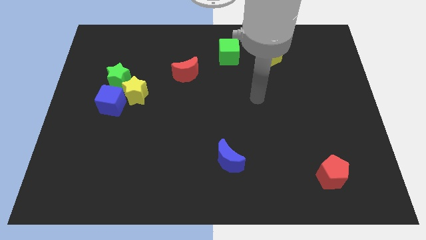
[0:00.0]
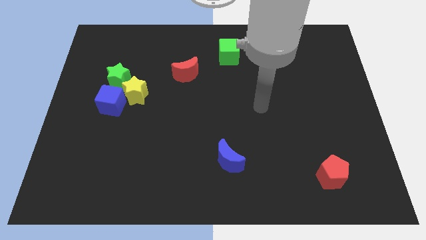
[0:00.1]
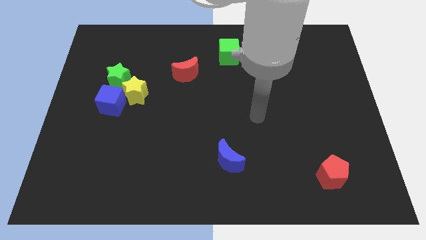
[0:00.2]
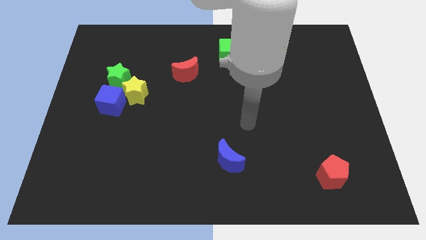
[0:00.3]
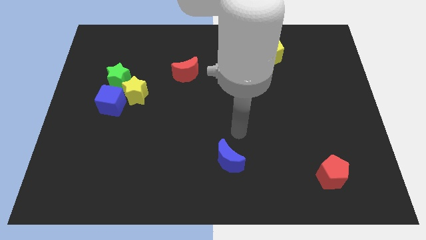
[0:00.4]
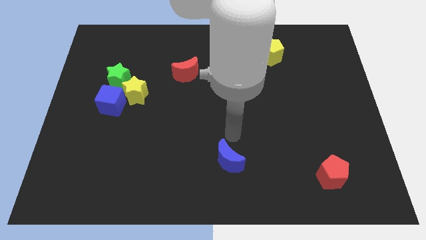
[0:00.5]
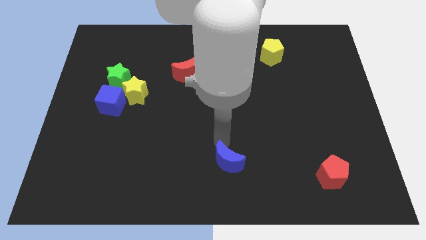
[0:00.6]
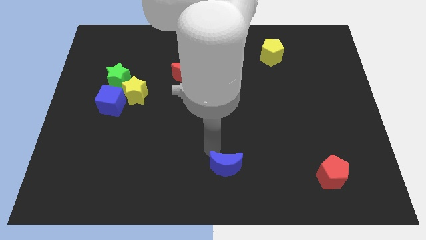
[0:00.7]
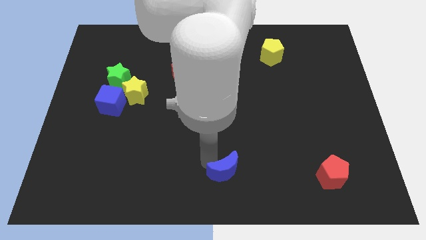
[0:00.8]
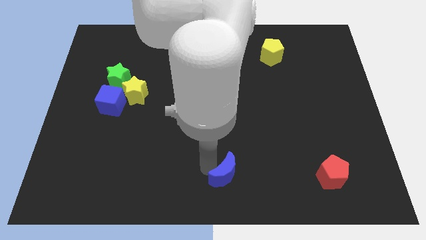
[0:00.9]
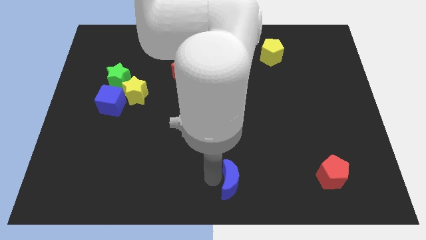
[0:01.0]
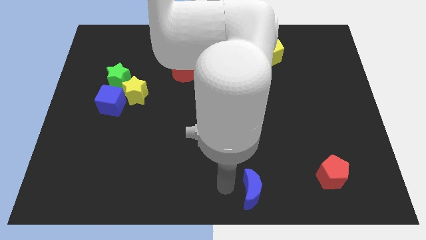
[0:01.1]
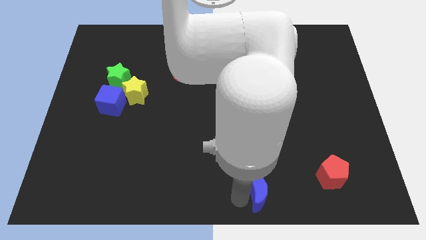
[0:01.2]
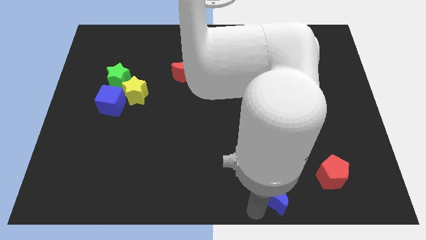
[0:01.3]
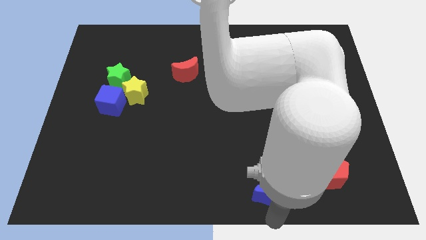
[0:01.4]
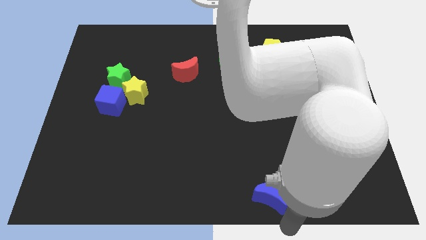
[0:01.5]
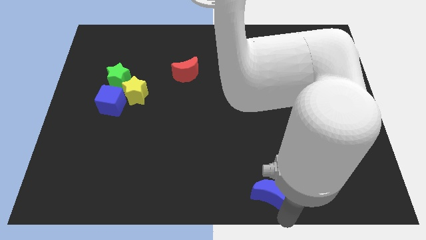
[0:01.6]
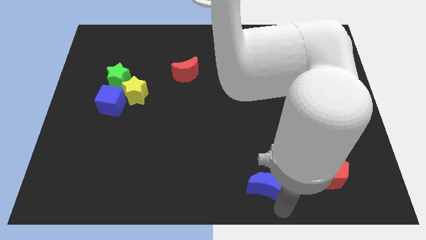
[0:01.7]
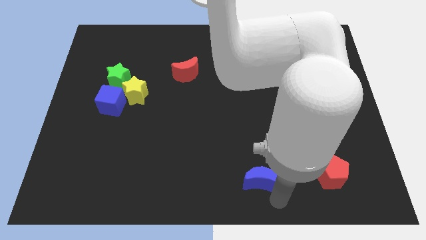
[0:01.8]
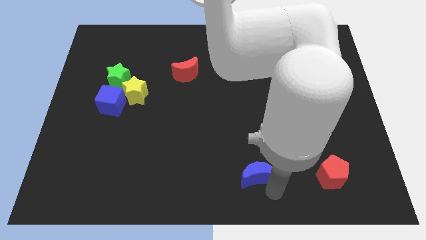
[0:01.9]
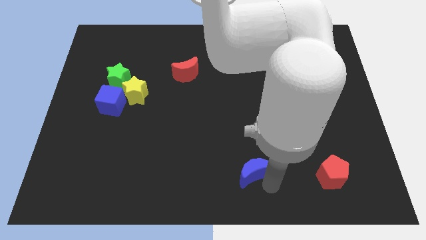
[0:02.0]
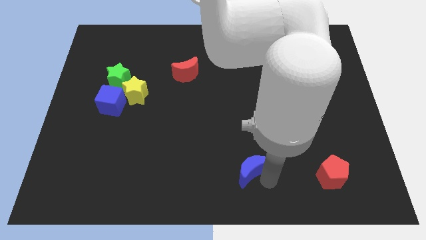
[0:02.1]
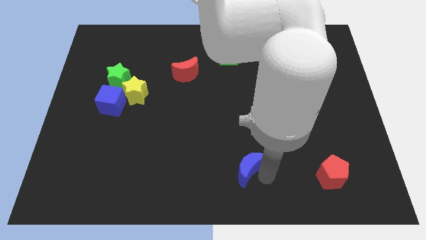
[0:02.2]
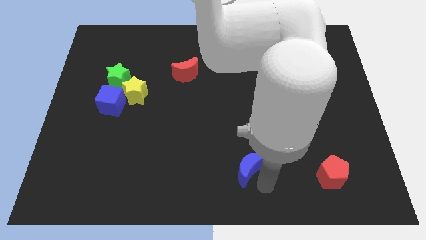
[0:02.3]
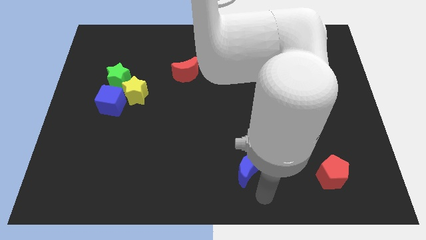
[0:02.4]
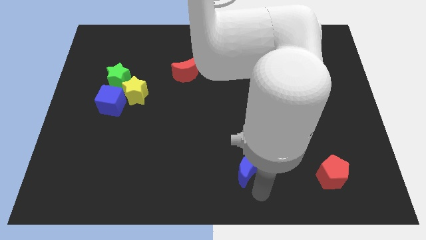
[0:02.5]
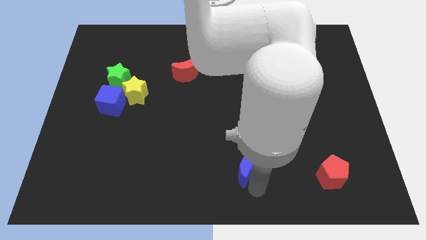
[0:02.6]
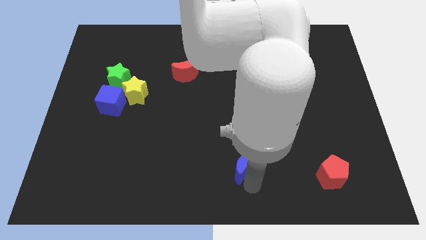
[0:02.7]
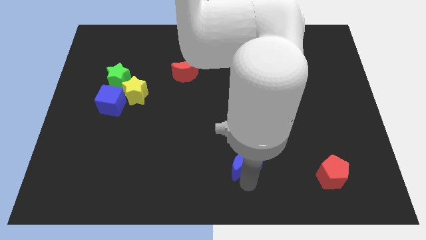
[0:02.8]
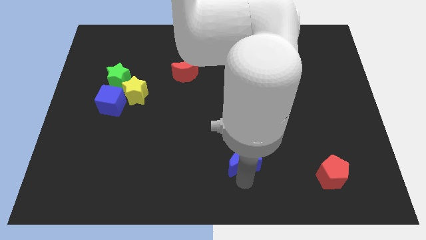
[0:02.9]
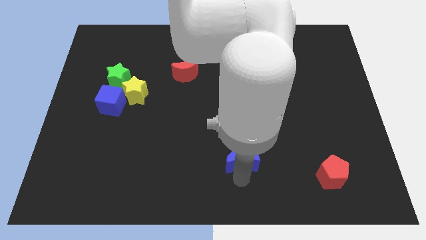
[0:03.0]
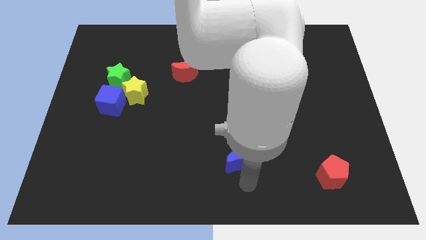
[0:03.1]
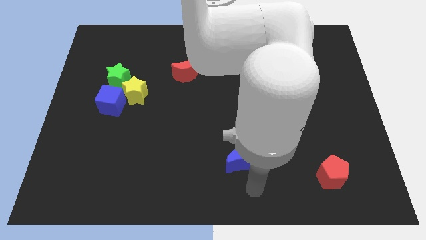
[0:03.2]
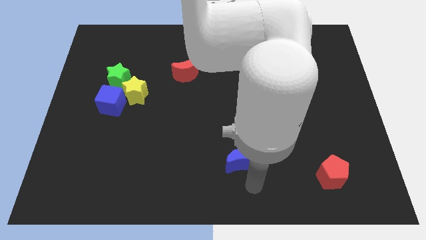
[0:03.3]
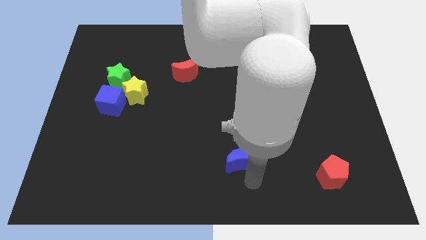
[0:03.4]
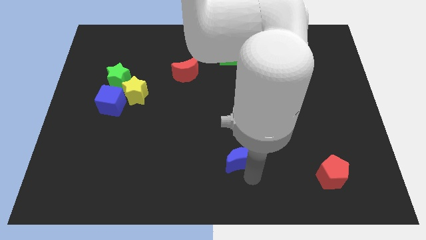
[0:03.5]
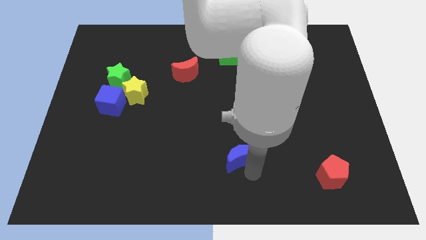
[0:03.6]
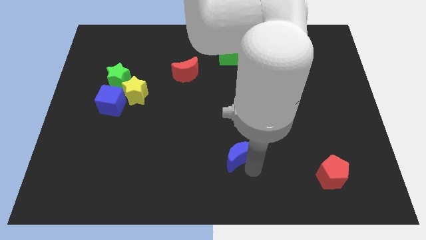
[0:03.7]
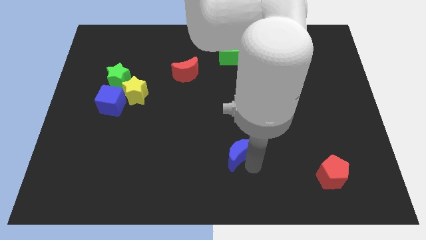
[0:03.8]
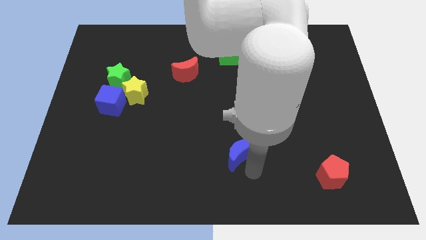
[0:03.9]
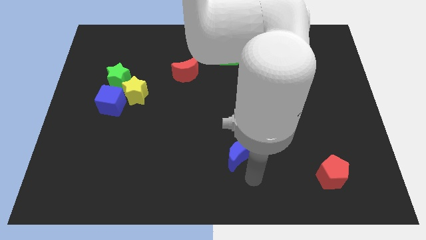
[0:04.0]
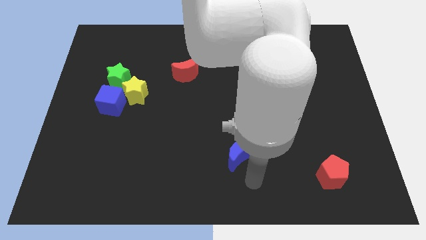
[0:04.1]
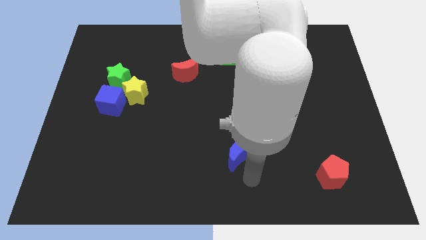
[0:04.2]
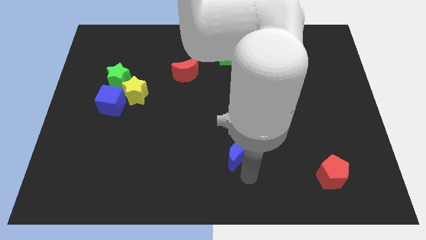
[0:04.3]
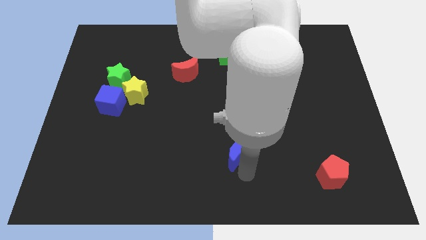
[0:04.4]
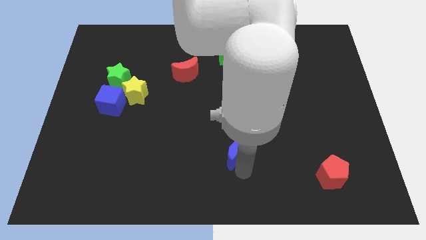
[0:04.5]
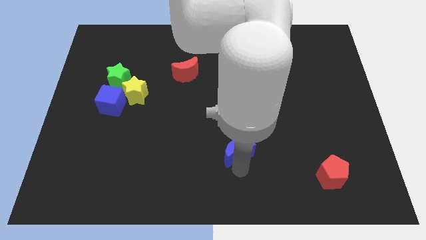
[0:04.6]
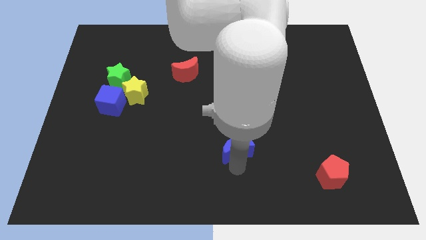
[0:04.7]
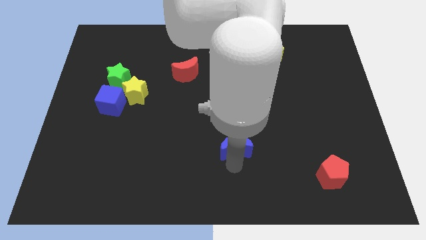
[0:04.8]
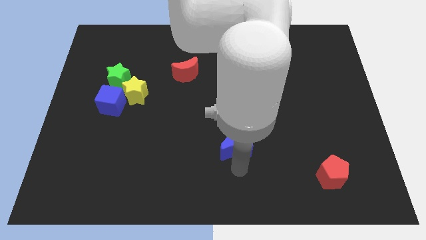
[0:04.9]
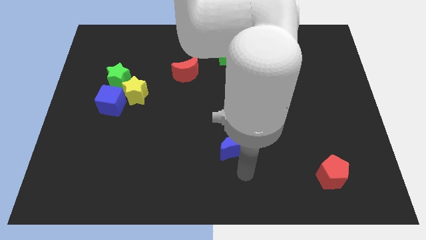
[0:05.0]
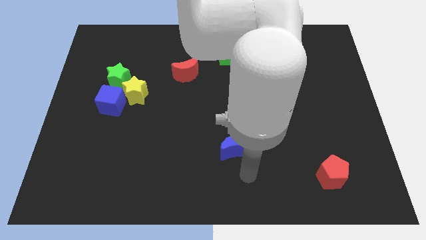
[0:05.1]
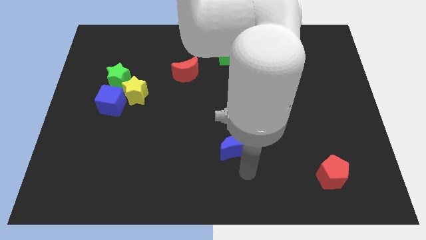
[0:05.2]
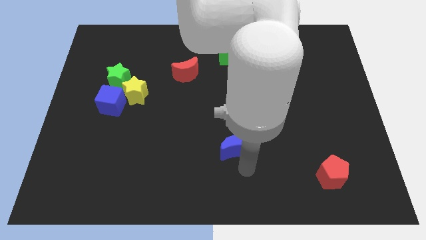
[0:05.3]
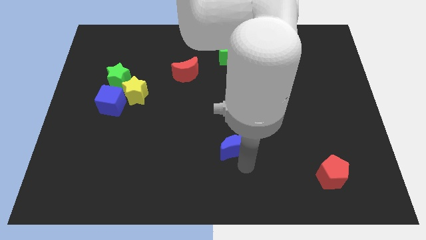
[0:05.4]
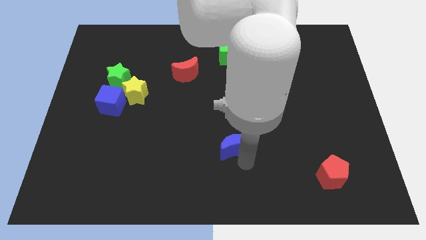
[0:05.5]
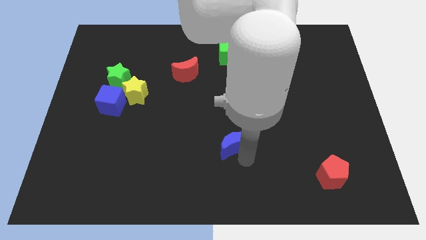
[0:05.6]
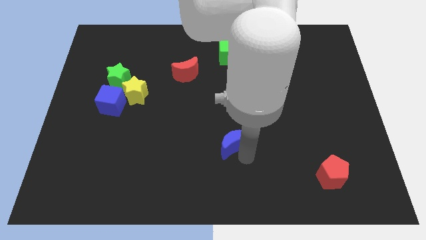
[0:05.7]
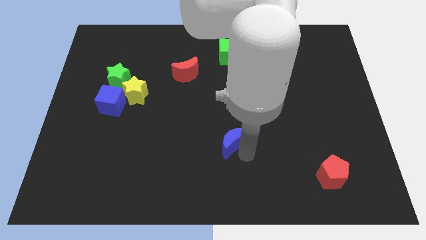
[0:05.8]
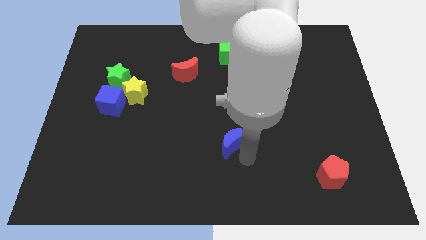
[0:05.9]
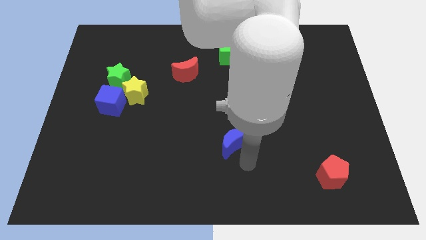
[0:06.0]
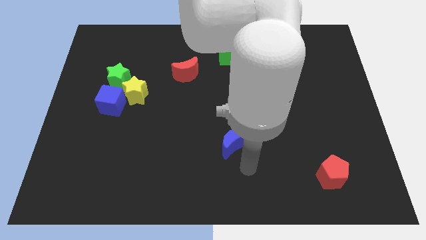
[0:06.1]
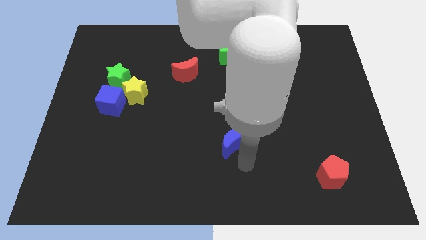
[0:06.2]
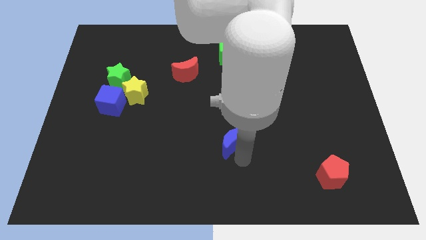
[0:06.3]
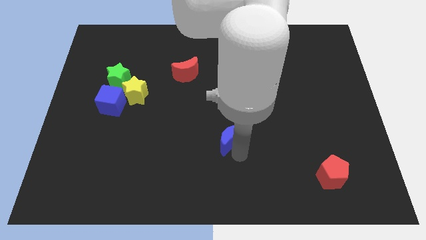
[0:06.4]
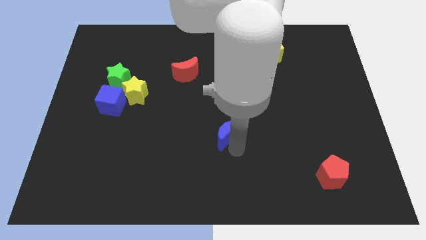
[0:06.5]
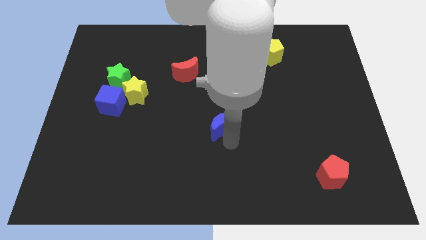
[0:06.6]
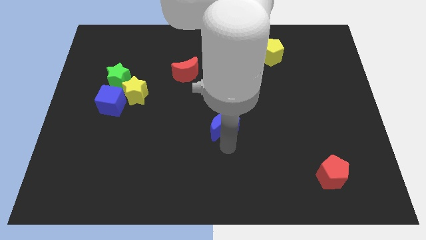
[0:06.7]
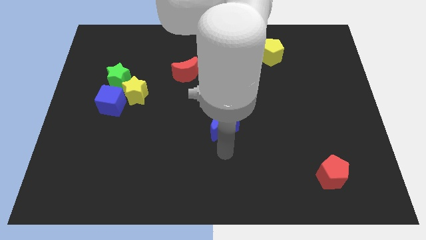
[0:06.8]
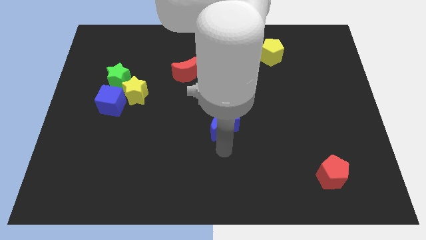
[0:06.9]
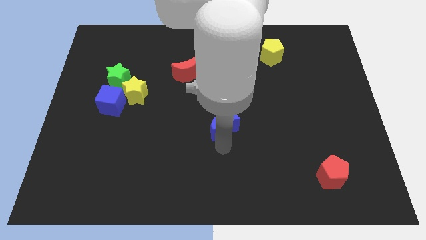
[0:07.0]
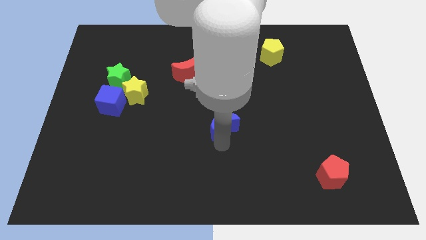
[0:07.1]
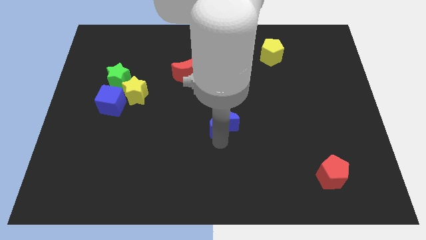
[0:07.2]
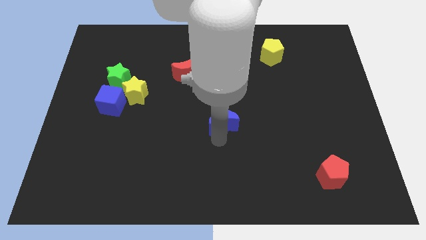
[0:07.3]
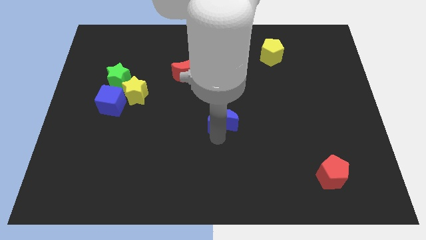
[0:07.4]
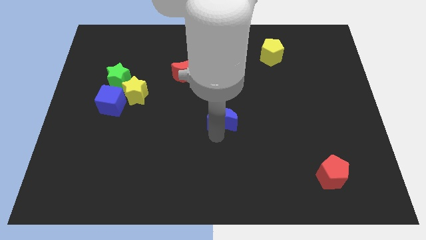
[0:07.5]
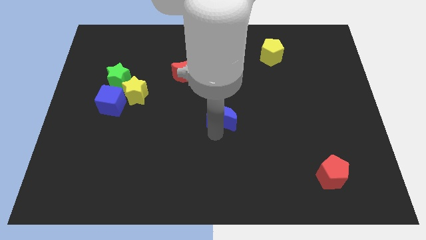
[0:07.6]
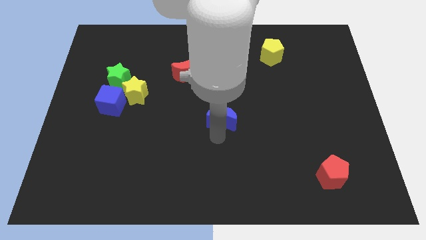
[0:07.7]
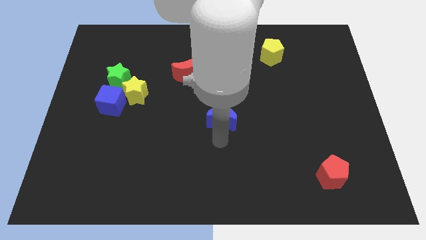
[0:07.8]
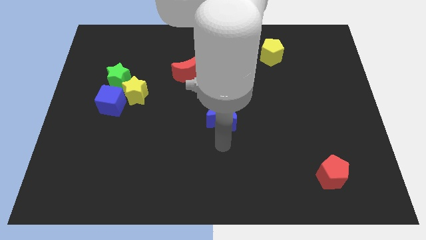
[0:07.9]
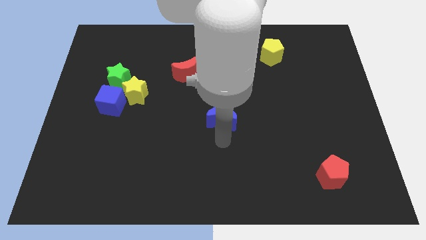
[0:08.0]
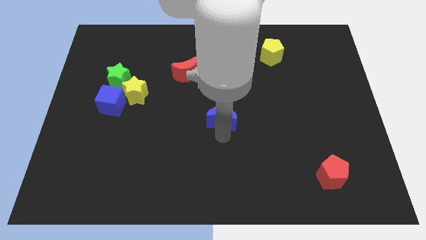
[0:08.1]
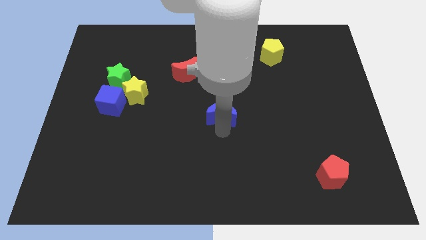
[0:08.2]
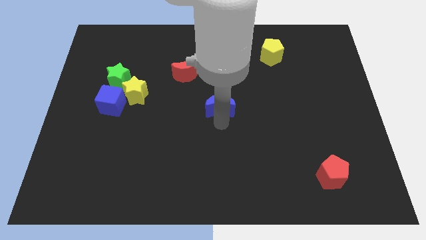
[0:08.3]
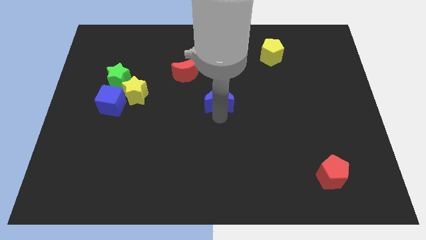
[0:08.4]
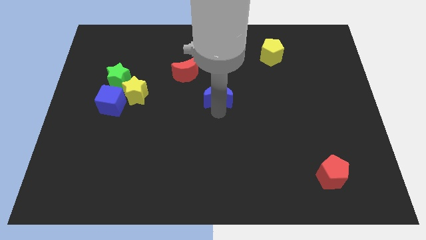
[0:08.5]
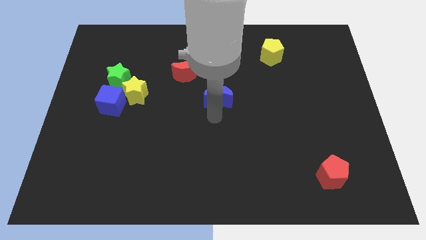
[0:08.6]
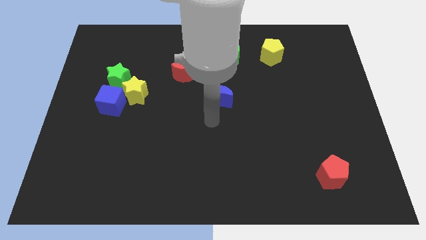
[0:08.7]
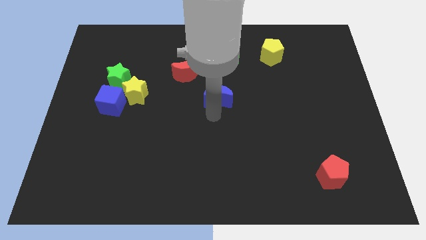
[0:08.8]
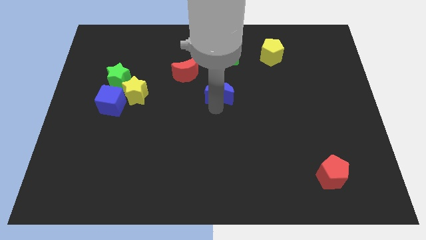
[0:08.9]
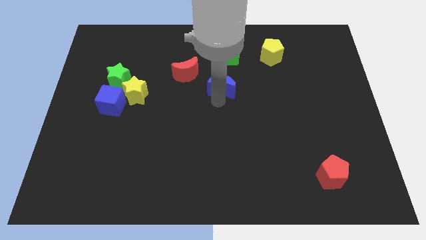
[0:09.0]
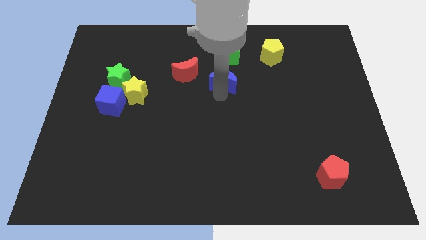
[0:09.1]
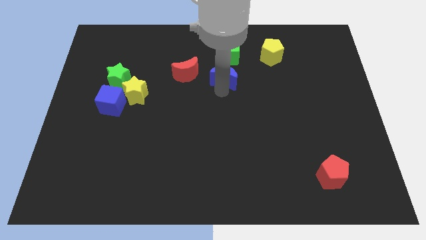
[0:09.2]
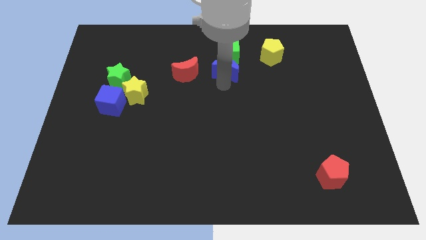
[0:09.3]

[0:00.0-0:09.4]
push the blue moon to the green cube
